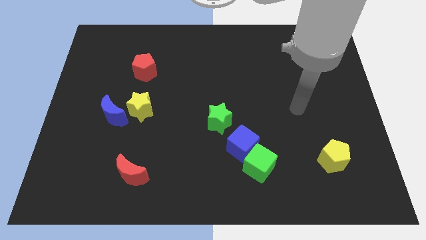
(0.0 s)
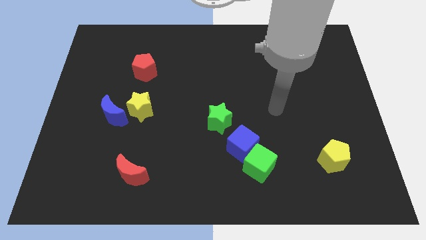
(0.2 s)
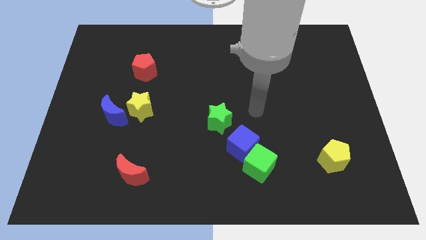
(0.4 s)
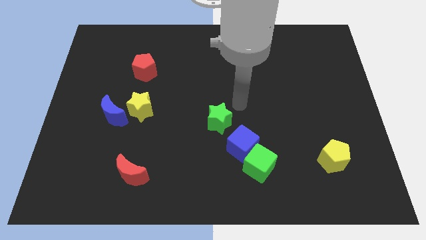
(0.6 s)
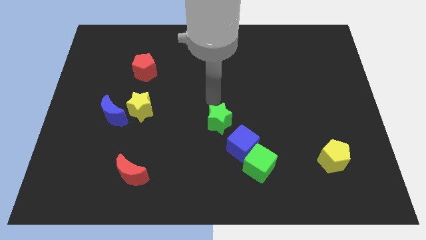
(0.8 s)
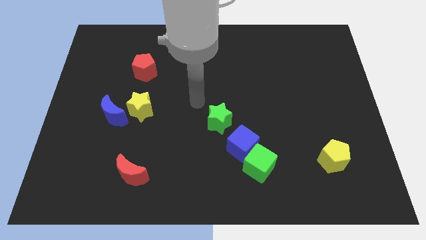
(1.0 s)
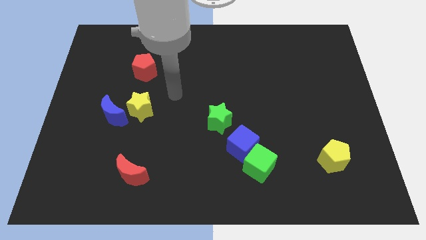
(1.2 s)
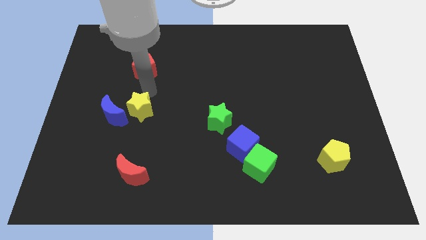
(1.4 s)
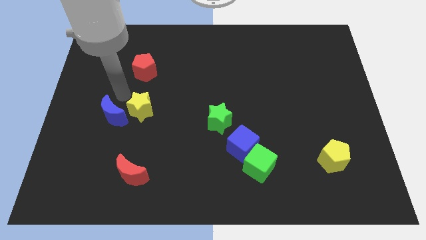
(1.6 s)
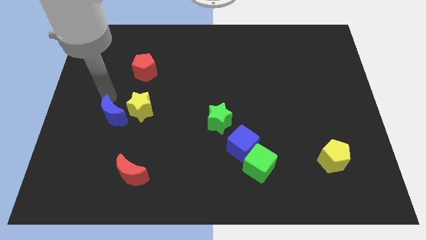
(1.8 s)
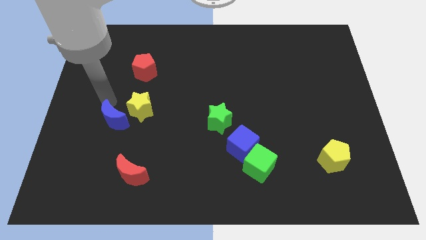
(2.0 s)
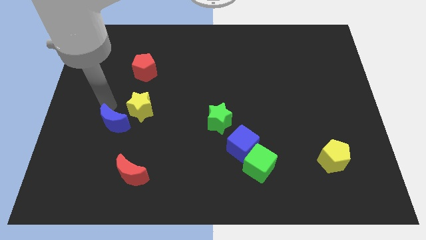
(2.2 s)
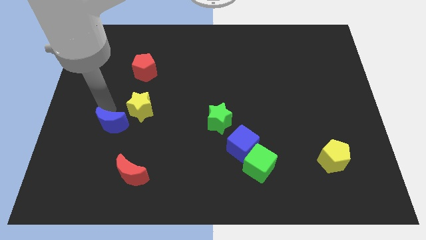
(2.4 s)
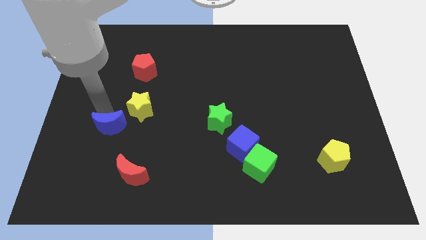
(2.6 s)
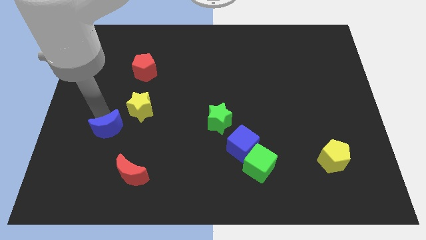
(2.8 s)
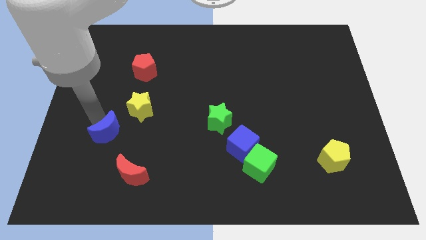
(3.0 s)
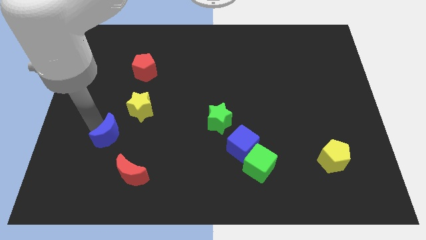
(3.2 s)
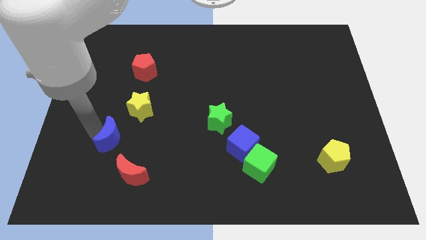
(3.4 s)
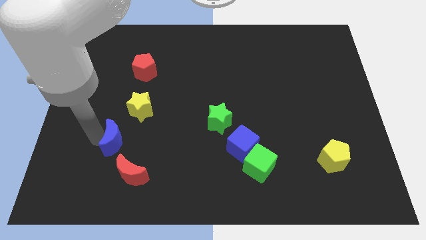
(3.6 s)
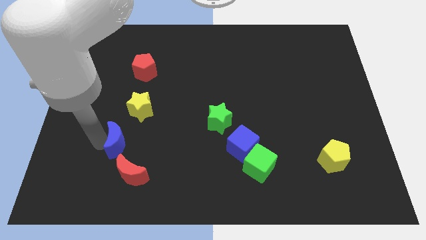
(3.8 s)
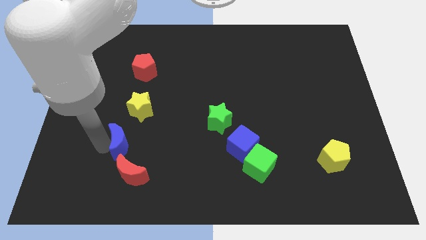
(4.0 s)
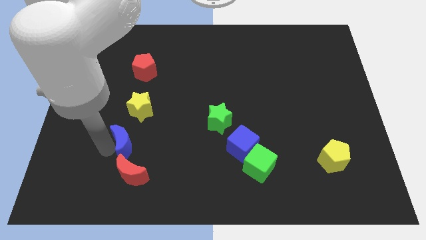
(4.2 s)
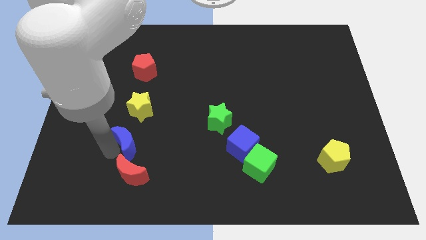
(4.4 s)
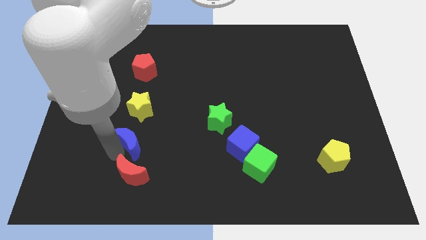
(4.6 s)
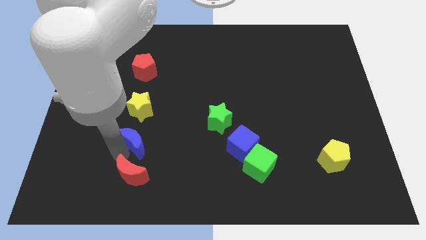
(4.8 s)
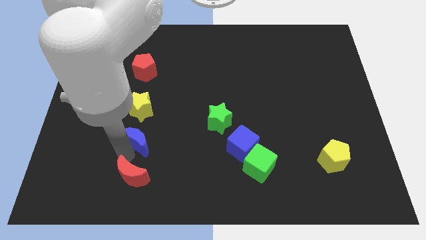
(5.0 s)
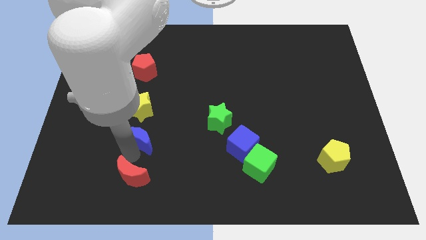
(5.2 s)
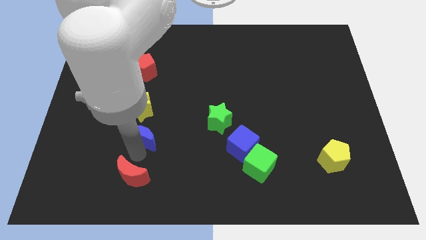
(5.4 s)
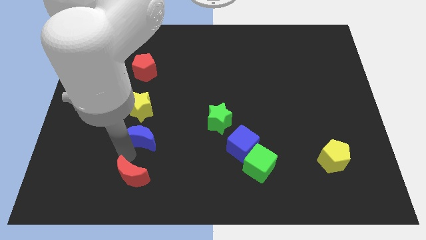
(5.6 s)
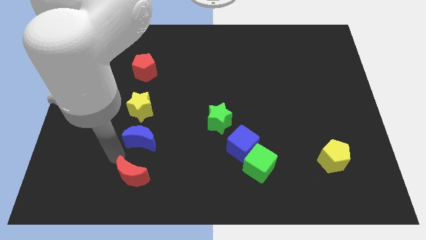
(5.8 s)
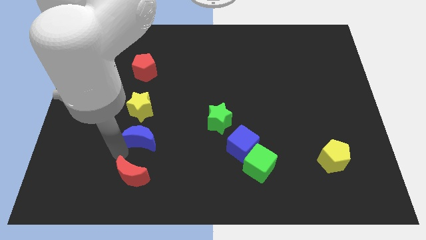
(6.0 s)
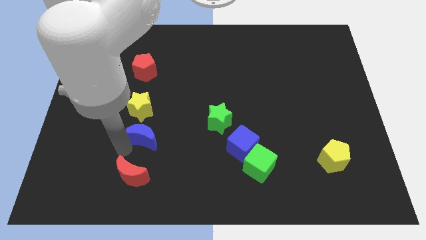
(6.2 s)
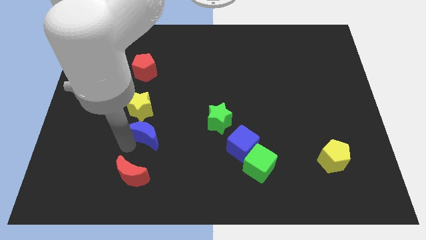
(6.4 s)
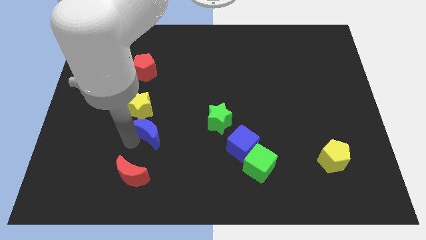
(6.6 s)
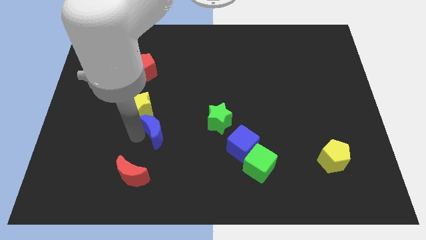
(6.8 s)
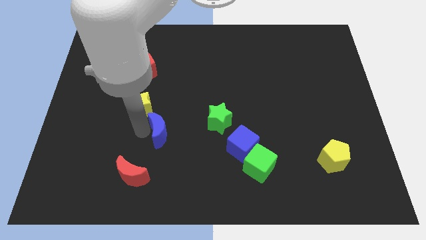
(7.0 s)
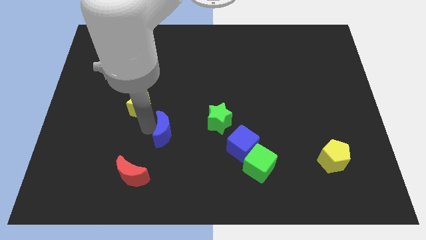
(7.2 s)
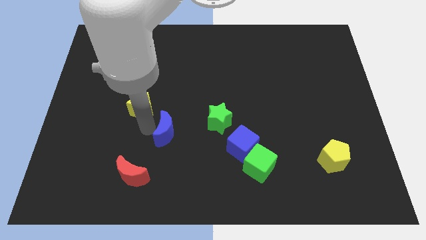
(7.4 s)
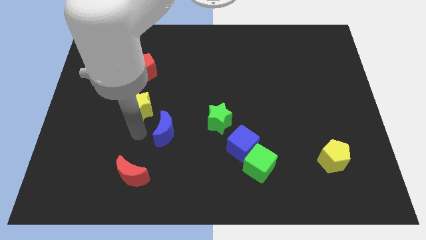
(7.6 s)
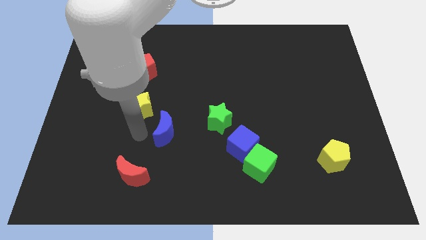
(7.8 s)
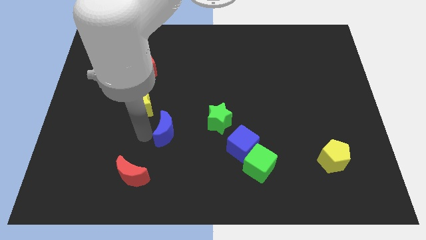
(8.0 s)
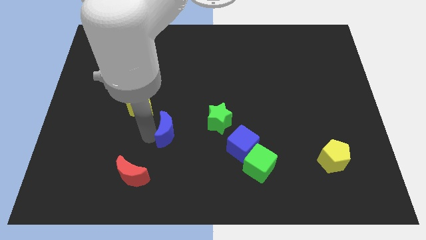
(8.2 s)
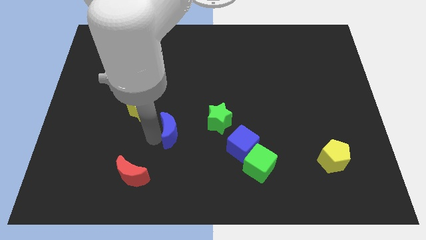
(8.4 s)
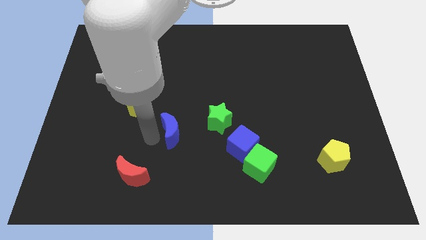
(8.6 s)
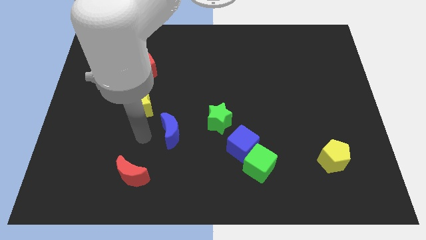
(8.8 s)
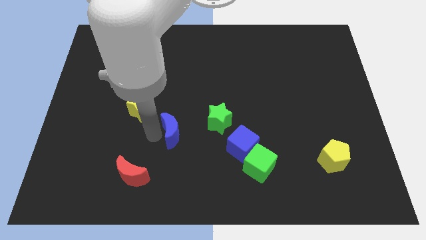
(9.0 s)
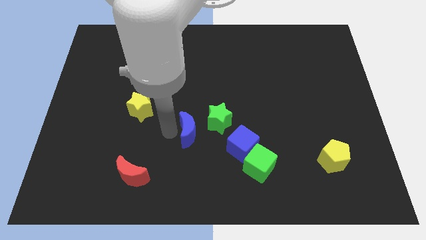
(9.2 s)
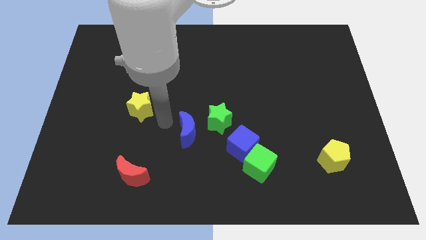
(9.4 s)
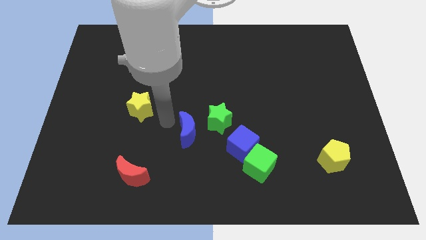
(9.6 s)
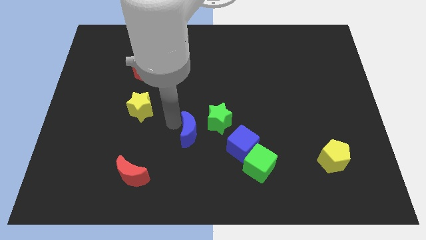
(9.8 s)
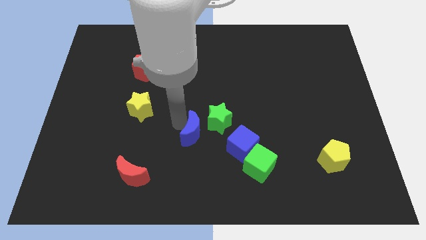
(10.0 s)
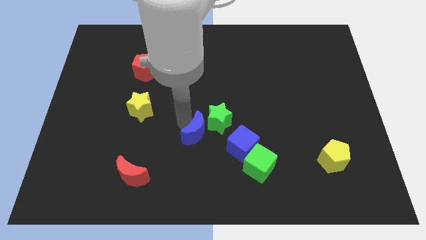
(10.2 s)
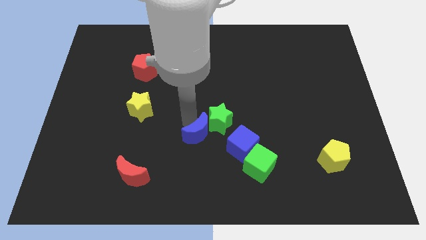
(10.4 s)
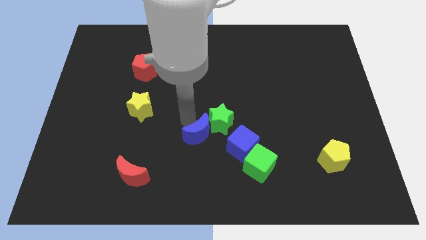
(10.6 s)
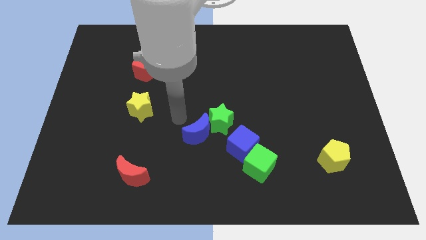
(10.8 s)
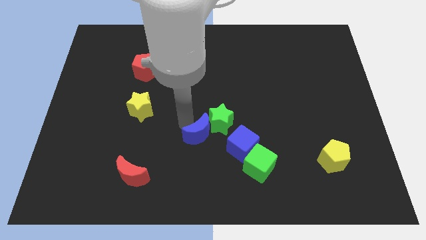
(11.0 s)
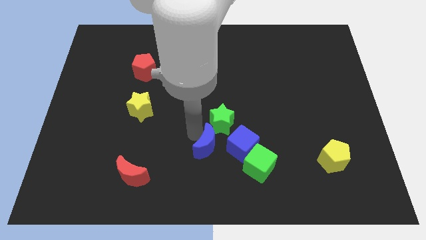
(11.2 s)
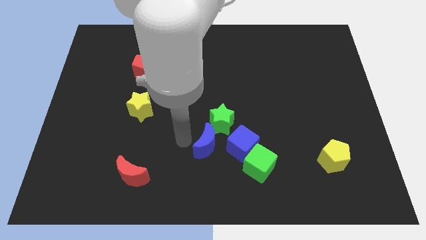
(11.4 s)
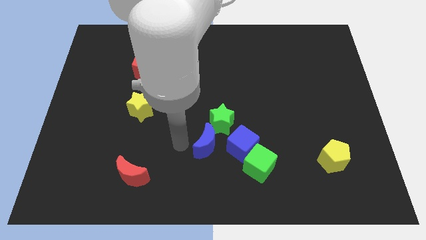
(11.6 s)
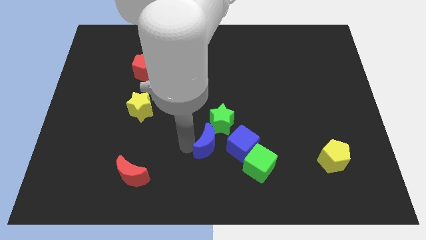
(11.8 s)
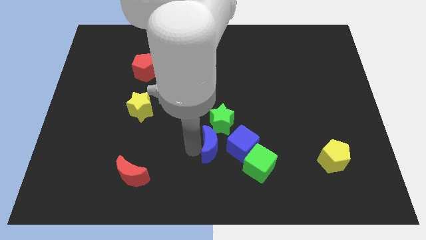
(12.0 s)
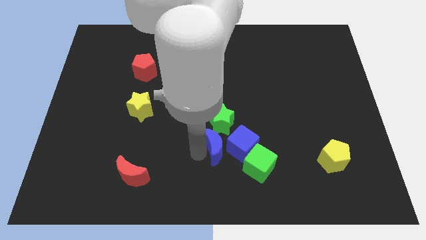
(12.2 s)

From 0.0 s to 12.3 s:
push the blue moon to the blue cube

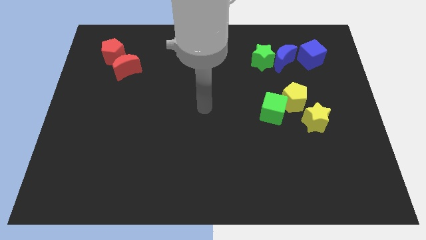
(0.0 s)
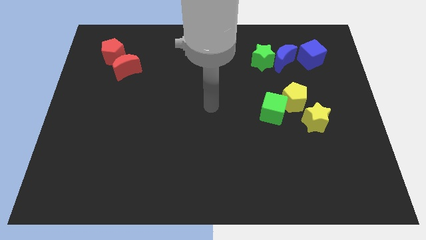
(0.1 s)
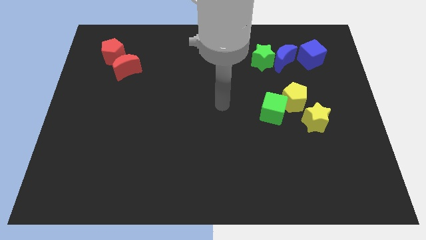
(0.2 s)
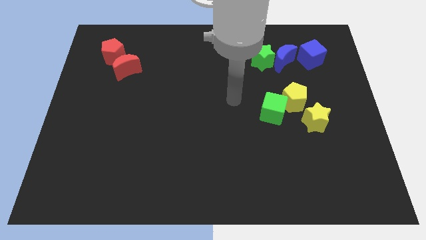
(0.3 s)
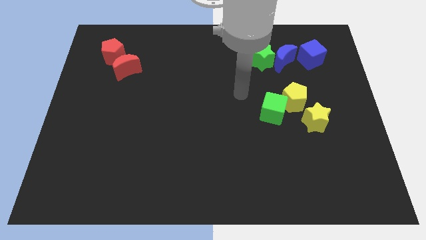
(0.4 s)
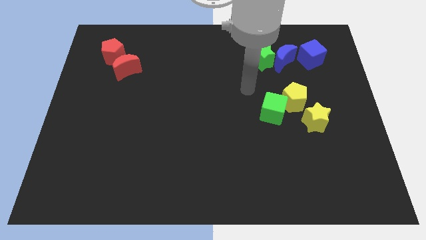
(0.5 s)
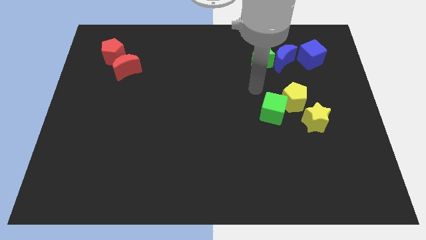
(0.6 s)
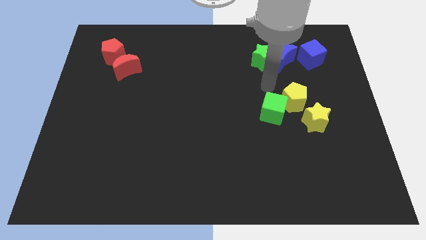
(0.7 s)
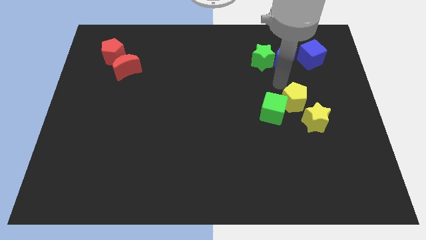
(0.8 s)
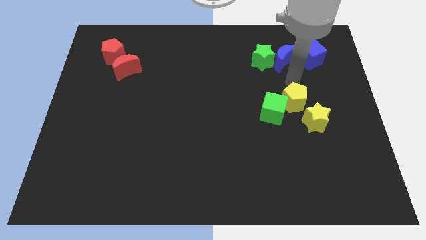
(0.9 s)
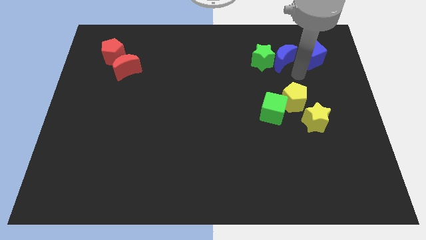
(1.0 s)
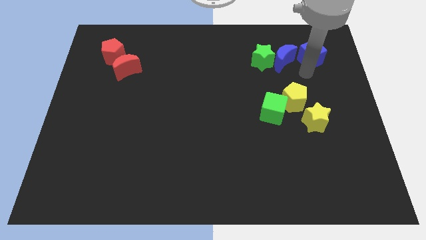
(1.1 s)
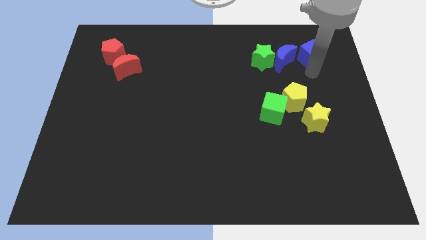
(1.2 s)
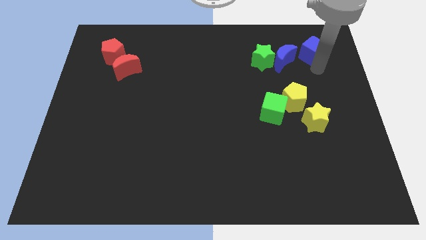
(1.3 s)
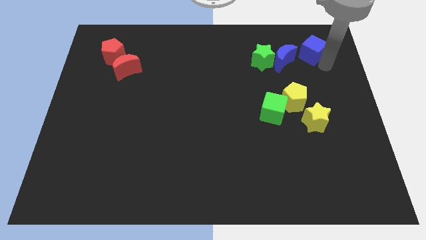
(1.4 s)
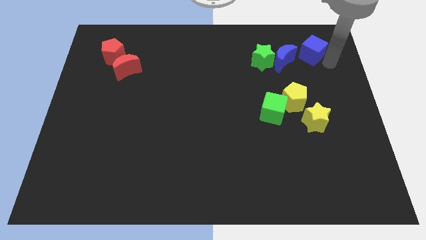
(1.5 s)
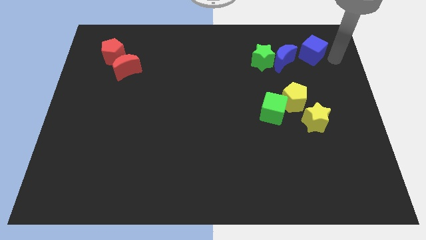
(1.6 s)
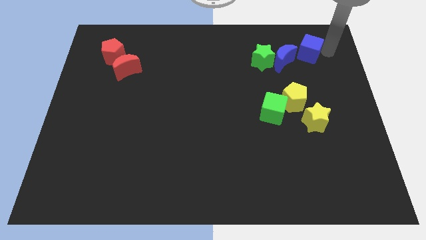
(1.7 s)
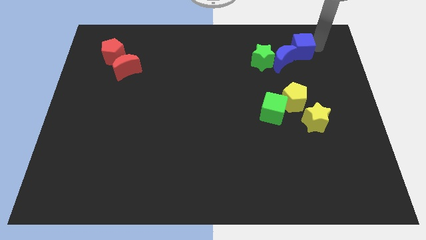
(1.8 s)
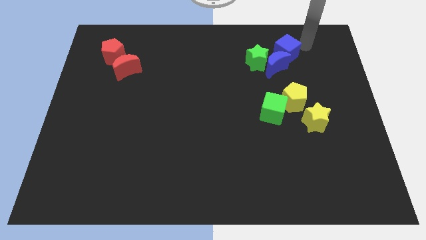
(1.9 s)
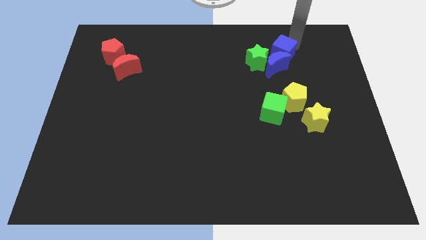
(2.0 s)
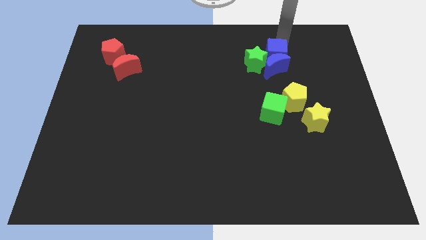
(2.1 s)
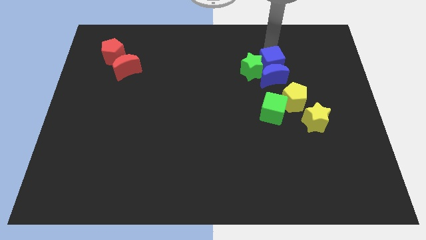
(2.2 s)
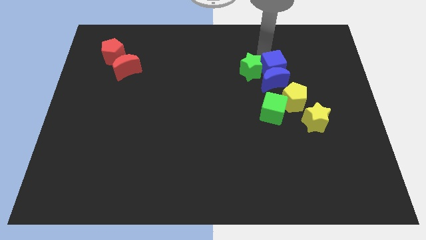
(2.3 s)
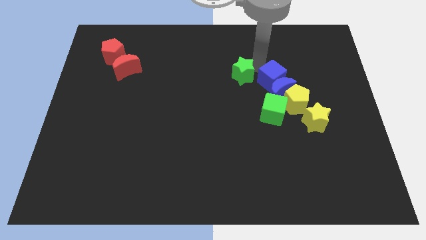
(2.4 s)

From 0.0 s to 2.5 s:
put the blue moon to the yellow pentagon
